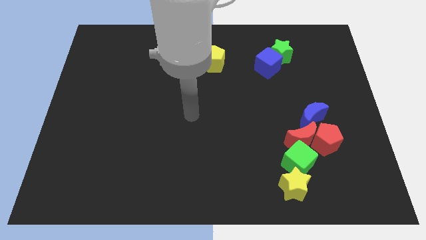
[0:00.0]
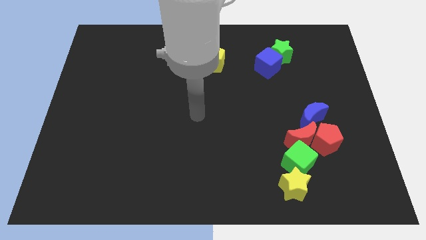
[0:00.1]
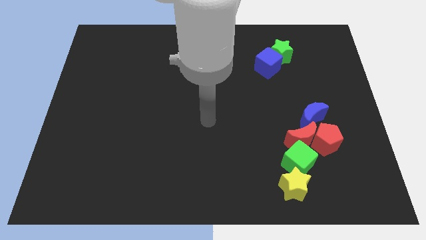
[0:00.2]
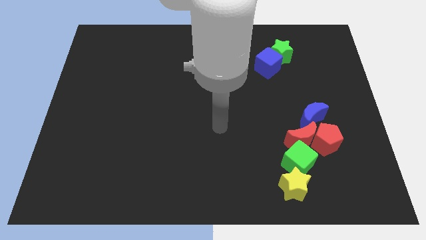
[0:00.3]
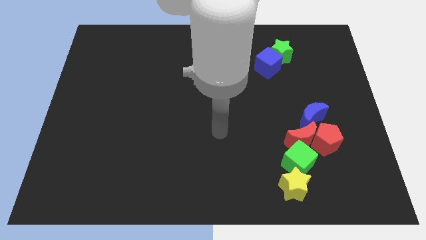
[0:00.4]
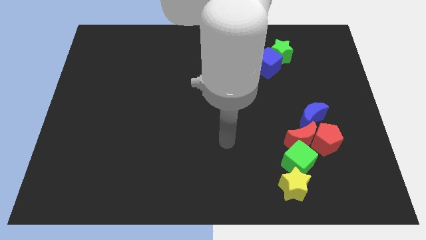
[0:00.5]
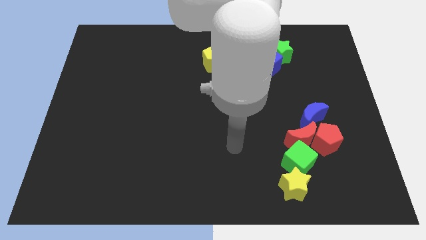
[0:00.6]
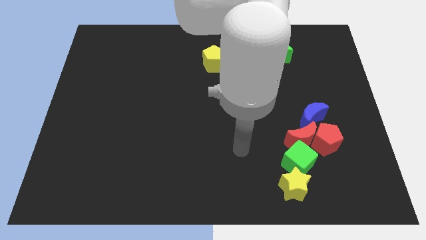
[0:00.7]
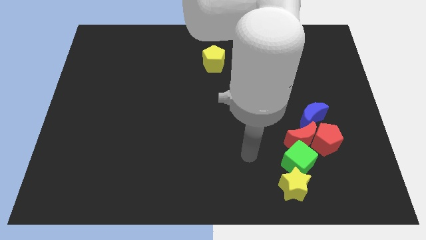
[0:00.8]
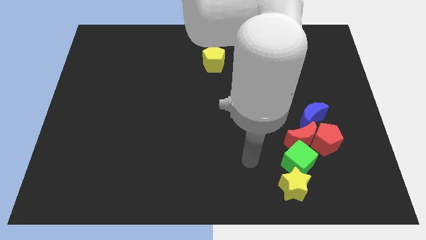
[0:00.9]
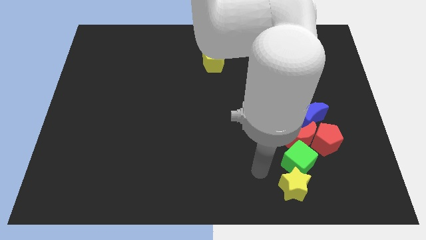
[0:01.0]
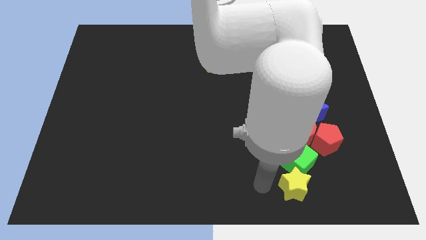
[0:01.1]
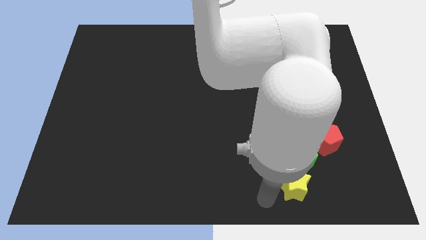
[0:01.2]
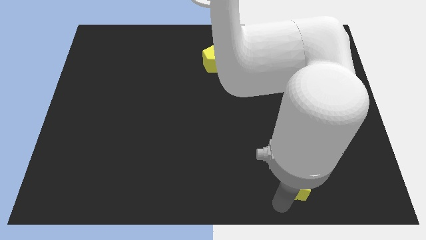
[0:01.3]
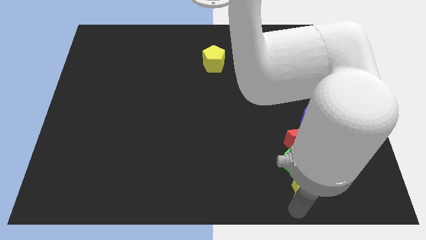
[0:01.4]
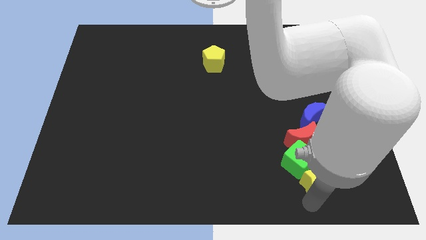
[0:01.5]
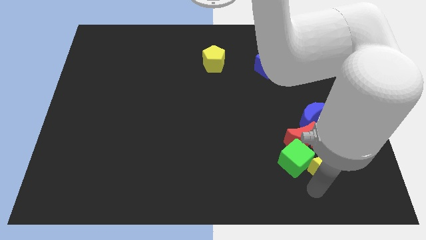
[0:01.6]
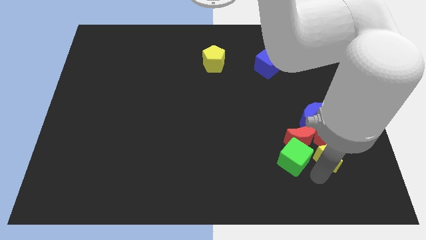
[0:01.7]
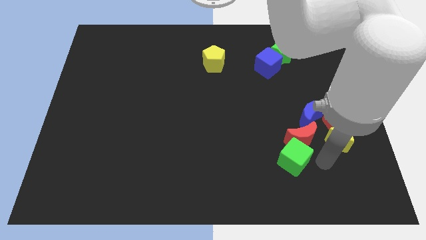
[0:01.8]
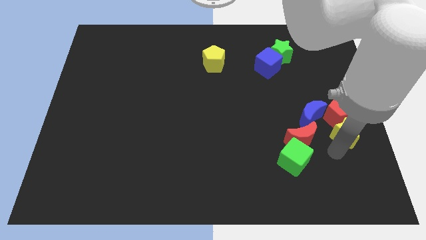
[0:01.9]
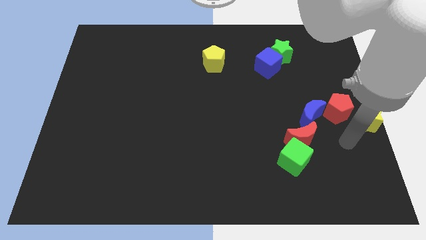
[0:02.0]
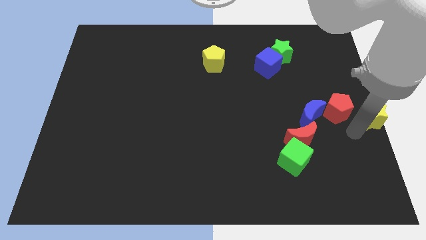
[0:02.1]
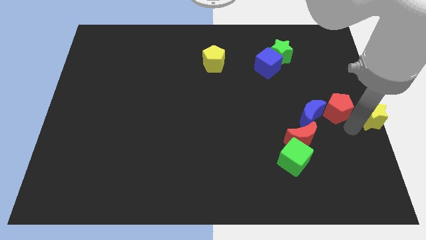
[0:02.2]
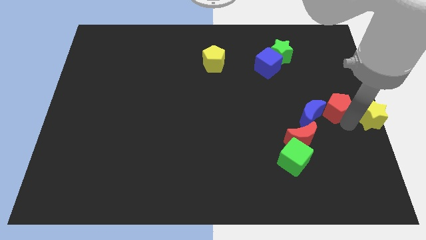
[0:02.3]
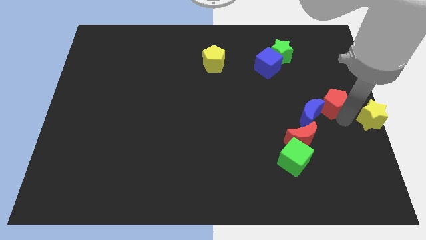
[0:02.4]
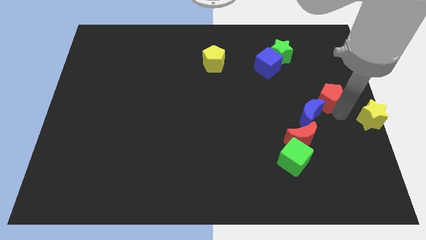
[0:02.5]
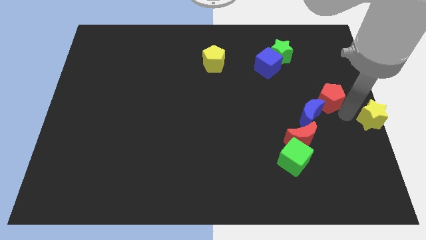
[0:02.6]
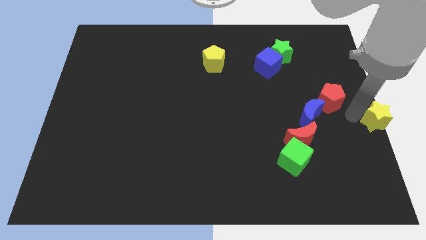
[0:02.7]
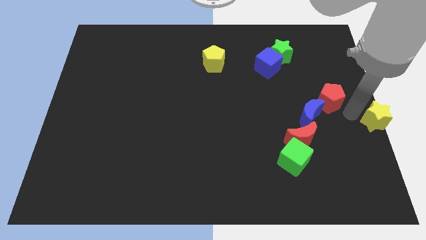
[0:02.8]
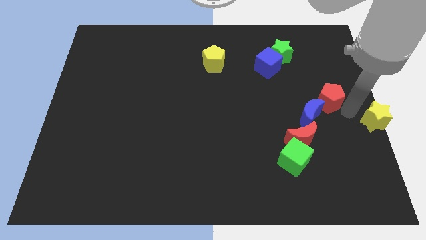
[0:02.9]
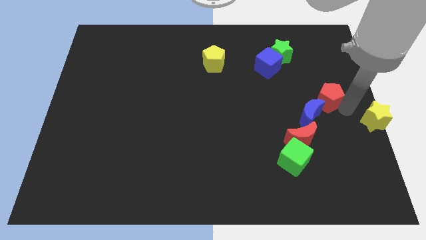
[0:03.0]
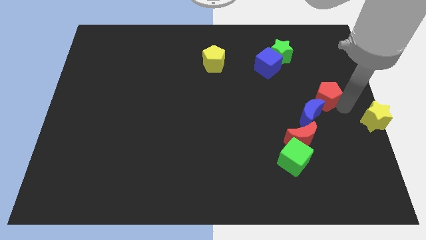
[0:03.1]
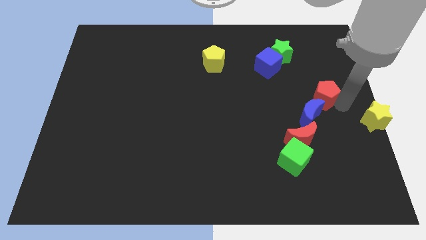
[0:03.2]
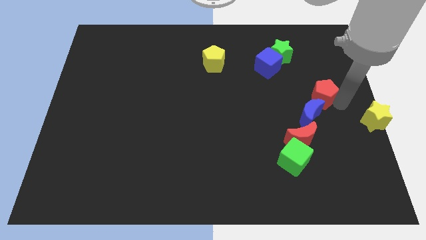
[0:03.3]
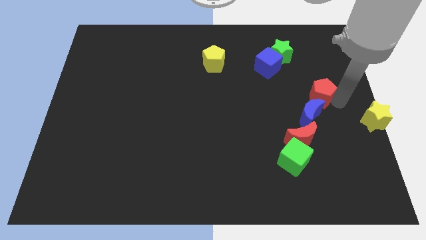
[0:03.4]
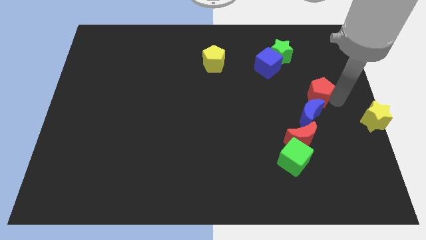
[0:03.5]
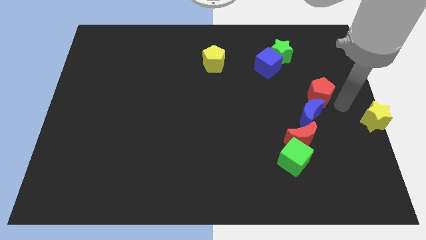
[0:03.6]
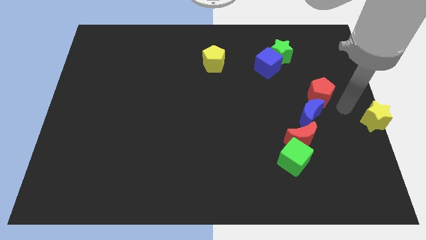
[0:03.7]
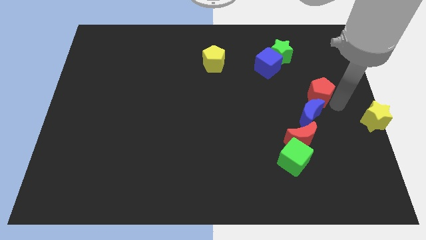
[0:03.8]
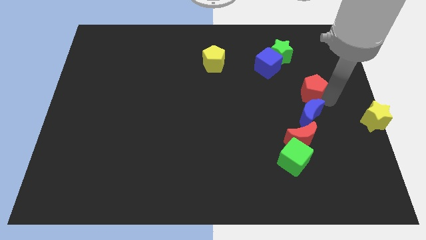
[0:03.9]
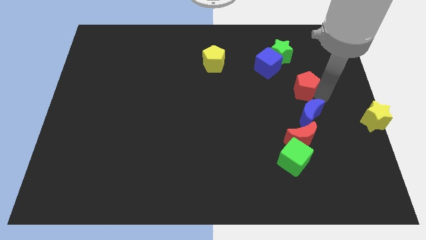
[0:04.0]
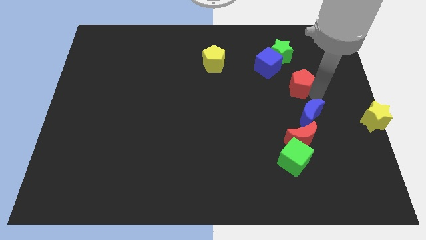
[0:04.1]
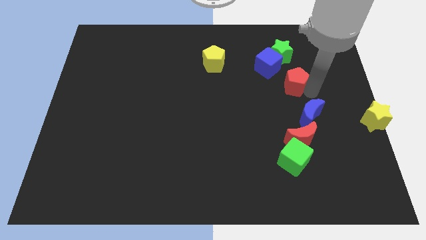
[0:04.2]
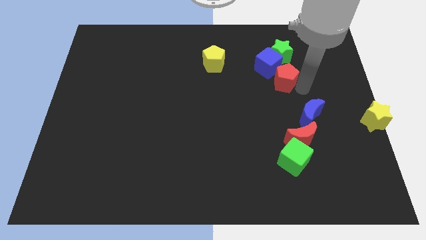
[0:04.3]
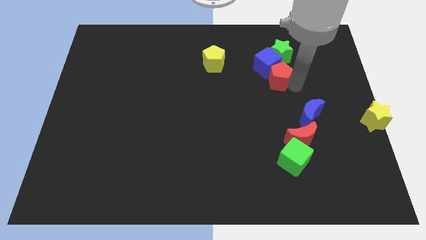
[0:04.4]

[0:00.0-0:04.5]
push the red pentagon close to the blue cube

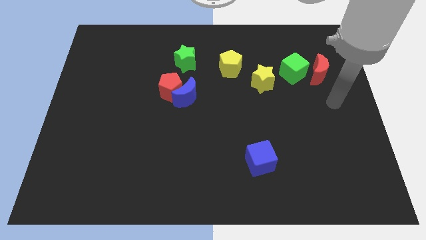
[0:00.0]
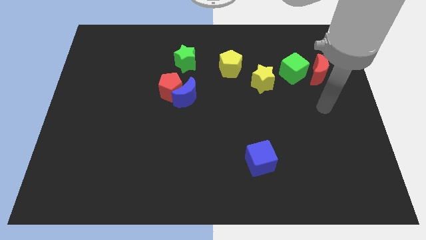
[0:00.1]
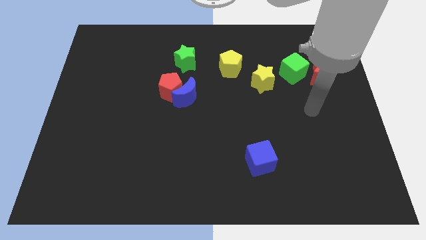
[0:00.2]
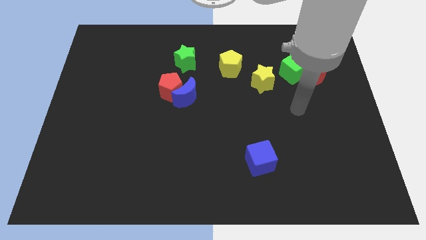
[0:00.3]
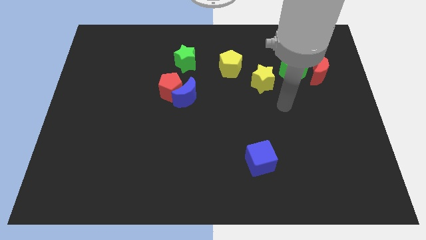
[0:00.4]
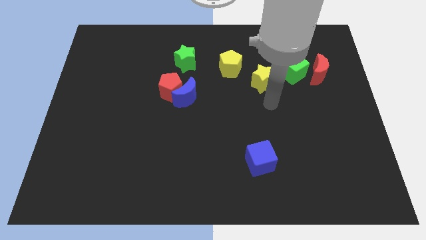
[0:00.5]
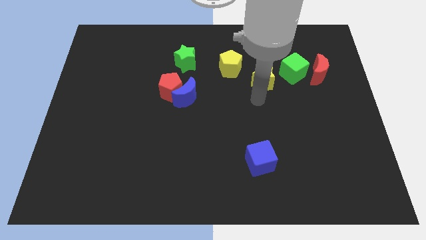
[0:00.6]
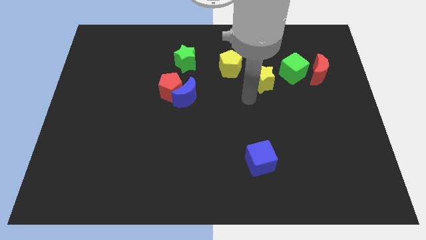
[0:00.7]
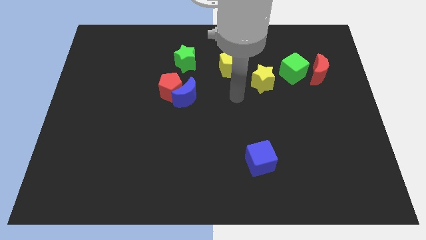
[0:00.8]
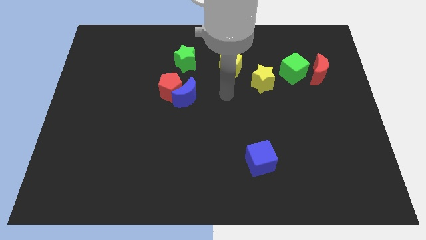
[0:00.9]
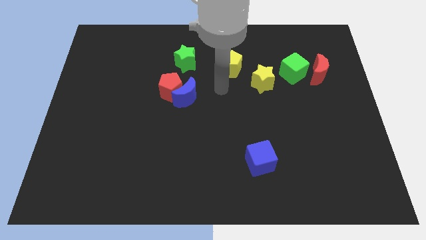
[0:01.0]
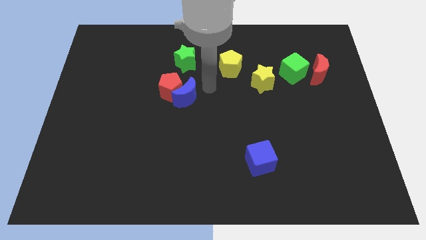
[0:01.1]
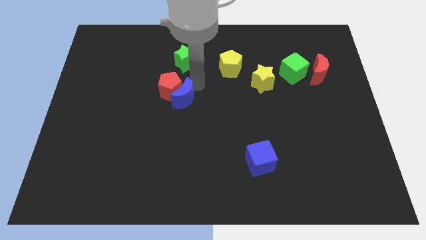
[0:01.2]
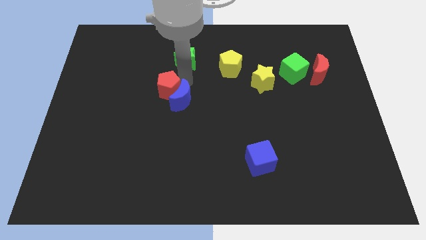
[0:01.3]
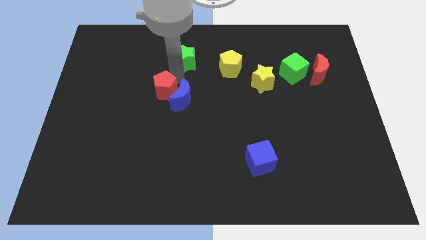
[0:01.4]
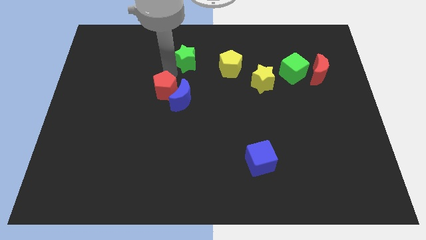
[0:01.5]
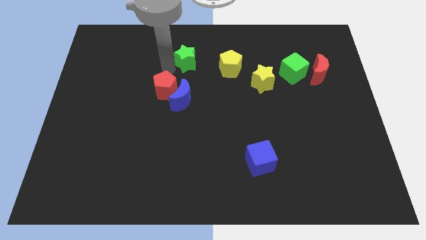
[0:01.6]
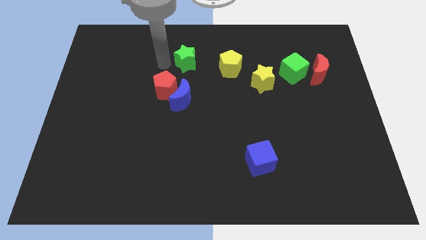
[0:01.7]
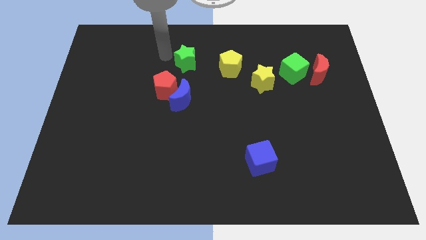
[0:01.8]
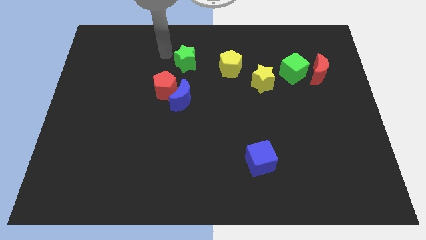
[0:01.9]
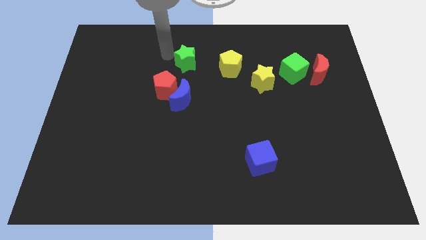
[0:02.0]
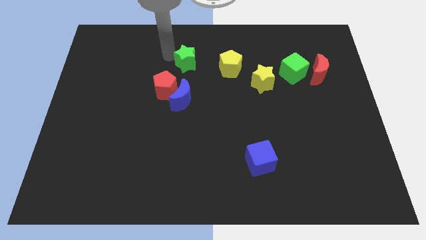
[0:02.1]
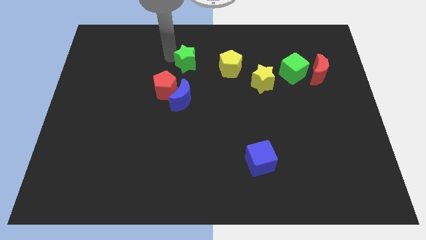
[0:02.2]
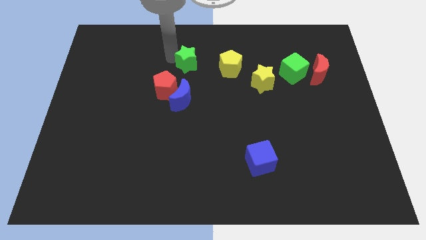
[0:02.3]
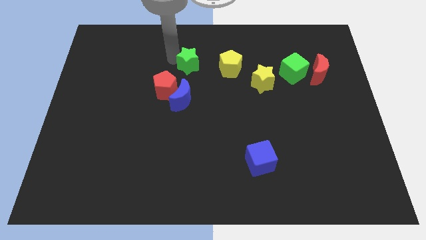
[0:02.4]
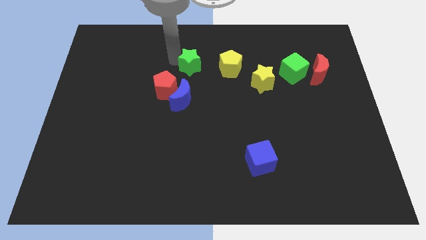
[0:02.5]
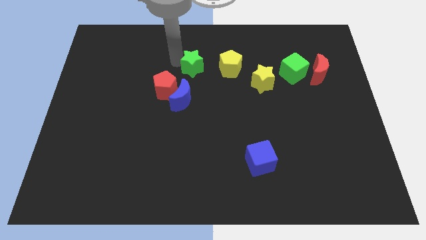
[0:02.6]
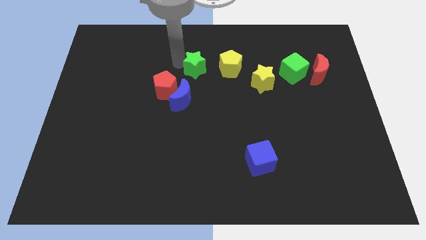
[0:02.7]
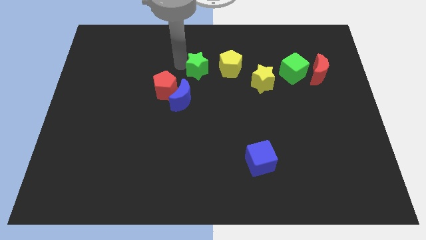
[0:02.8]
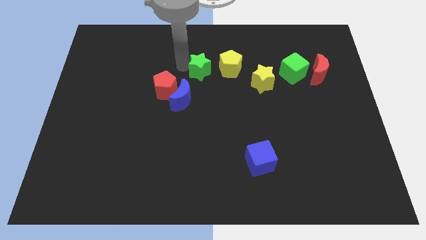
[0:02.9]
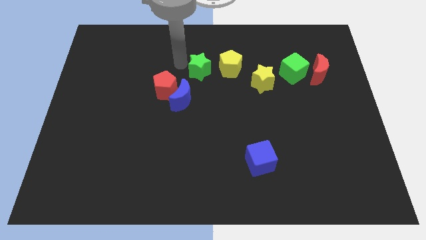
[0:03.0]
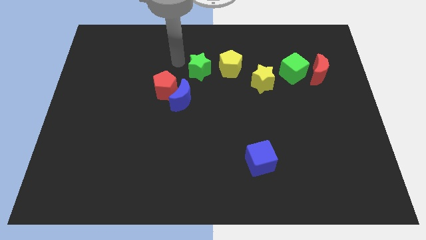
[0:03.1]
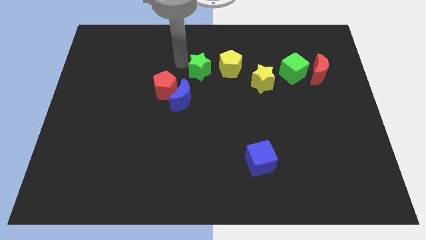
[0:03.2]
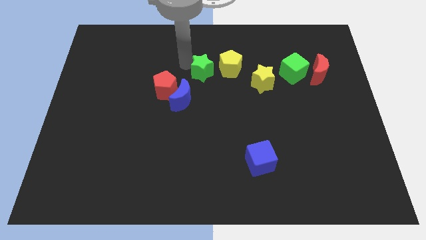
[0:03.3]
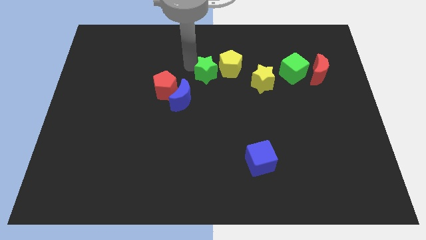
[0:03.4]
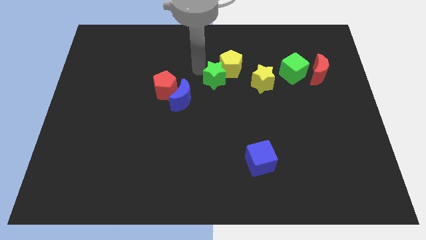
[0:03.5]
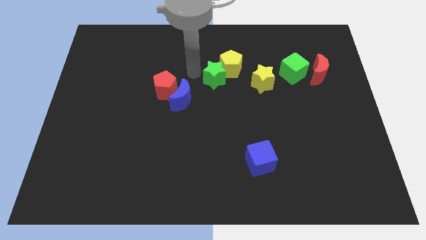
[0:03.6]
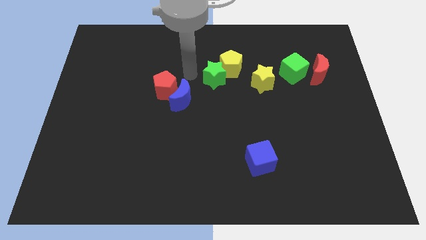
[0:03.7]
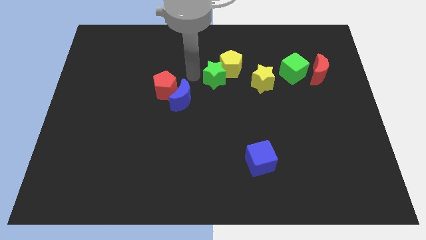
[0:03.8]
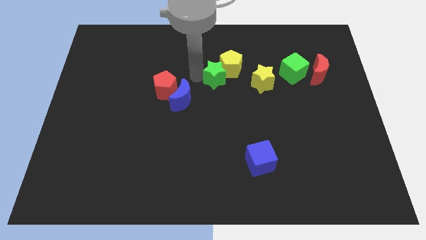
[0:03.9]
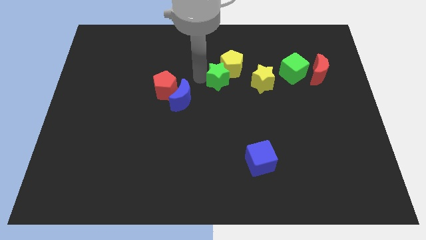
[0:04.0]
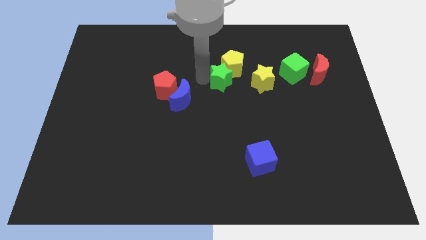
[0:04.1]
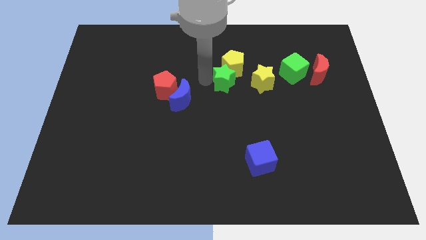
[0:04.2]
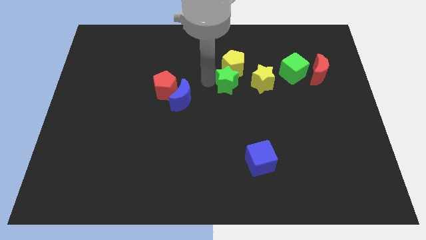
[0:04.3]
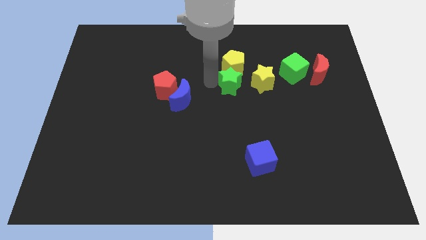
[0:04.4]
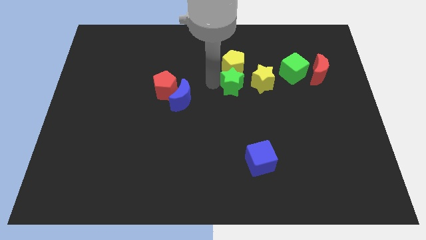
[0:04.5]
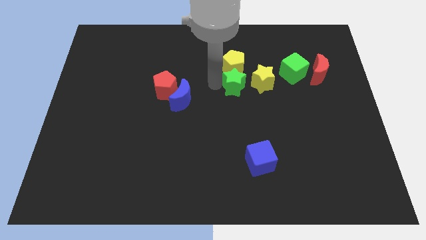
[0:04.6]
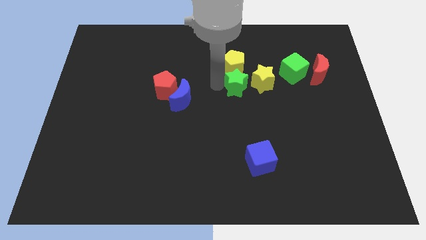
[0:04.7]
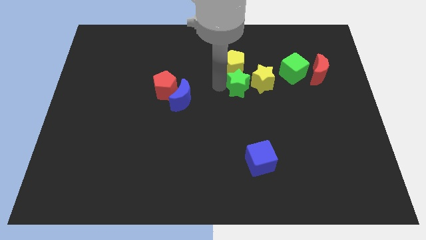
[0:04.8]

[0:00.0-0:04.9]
put the green star close to the yellow star
